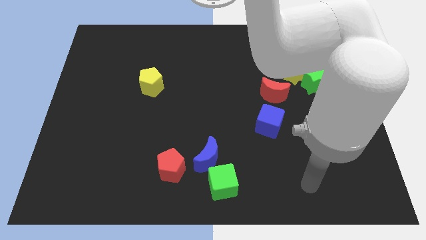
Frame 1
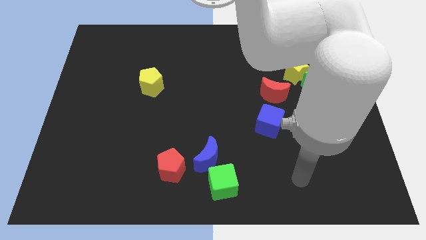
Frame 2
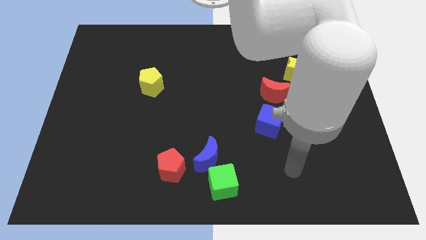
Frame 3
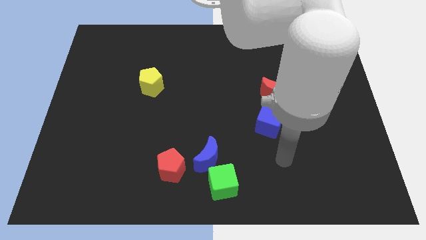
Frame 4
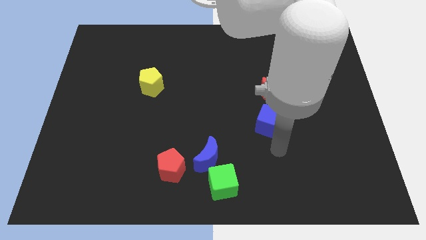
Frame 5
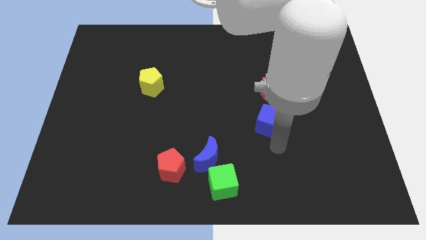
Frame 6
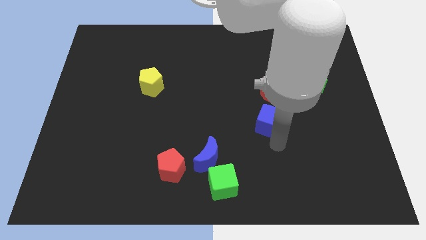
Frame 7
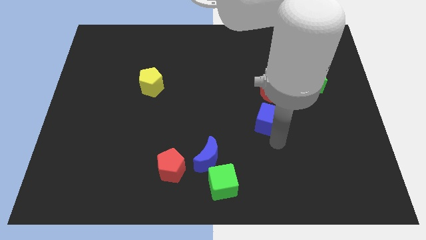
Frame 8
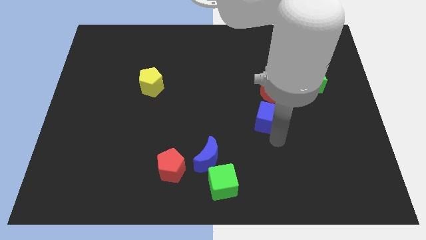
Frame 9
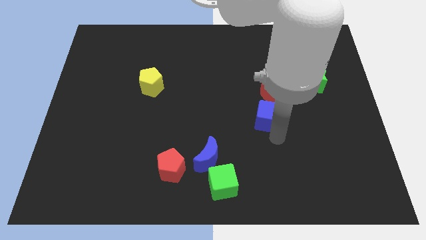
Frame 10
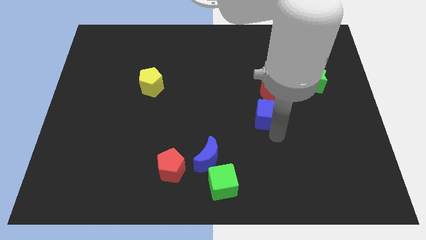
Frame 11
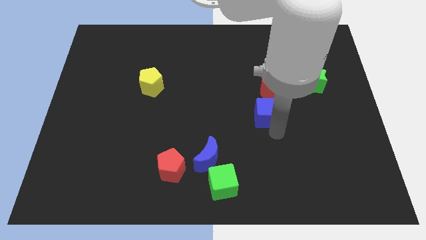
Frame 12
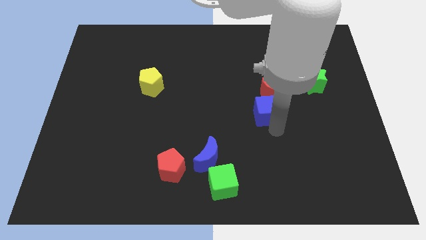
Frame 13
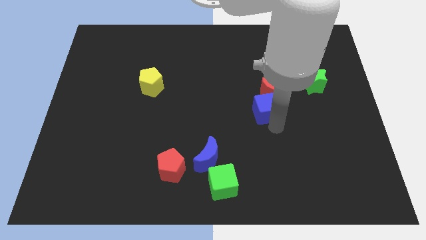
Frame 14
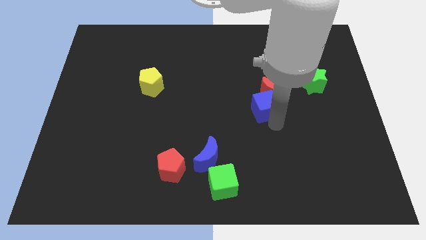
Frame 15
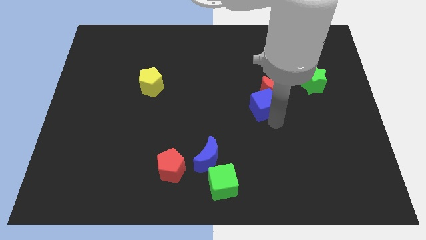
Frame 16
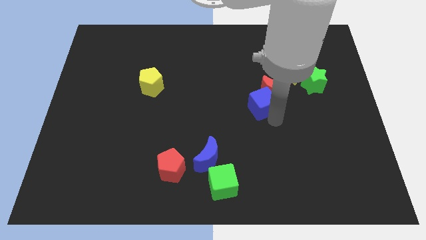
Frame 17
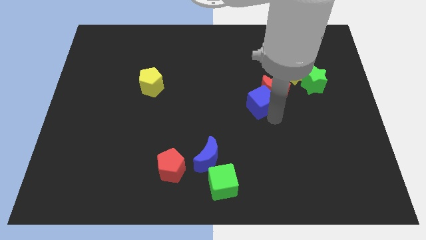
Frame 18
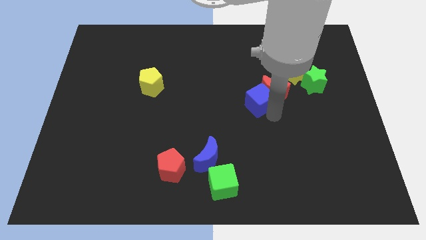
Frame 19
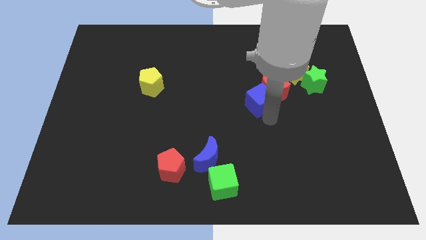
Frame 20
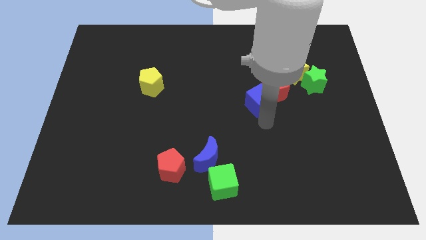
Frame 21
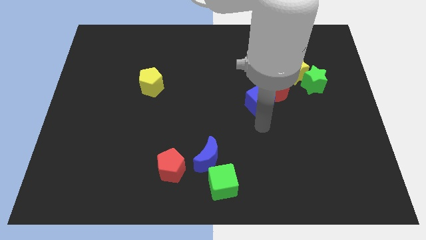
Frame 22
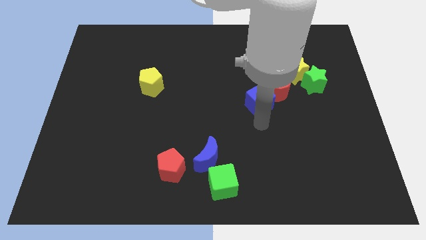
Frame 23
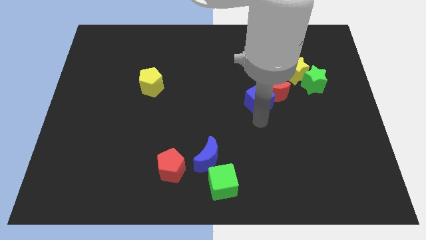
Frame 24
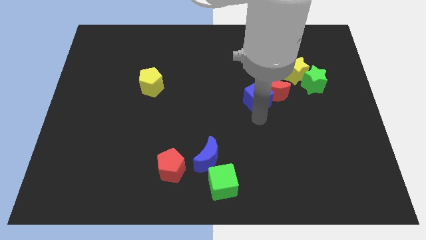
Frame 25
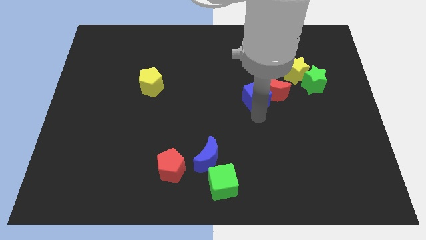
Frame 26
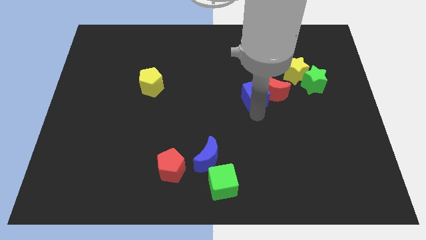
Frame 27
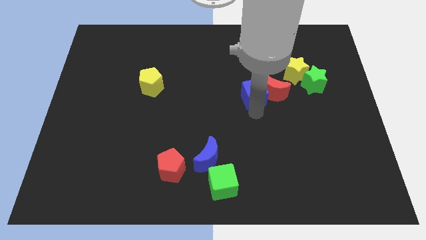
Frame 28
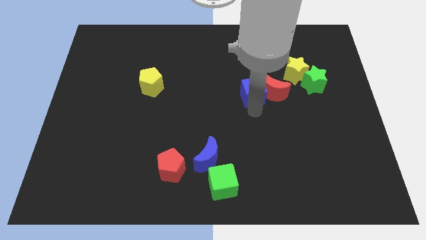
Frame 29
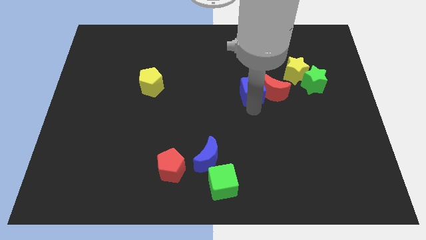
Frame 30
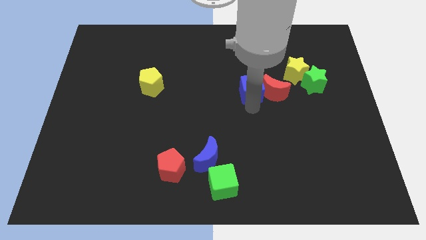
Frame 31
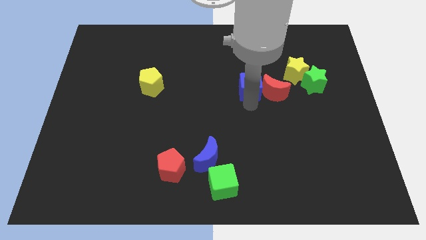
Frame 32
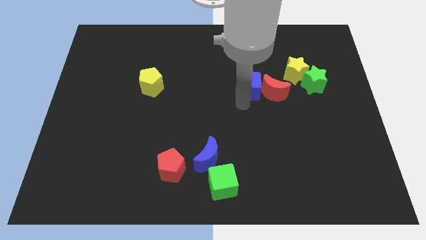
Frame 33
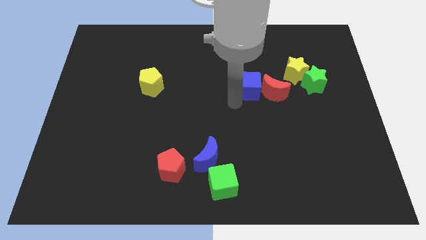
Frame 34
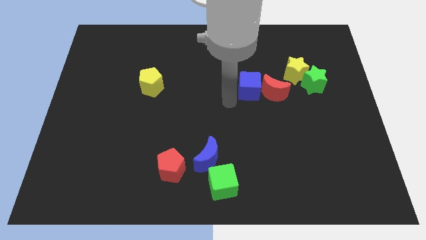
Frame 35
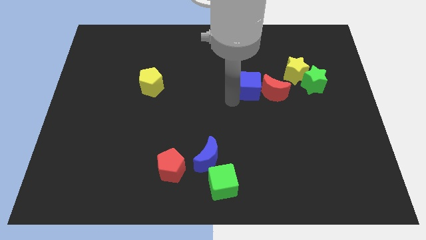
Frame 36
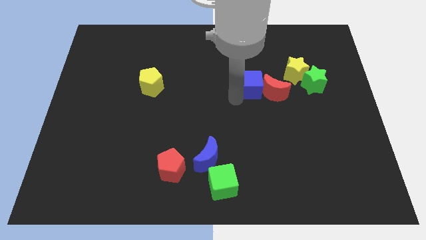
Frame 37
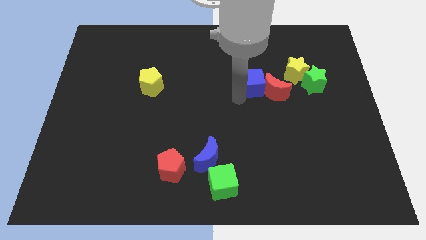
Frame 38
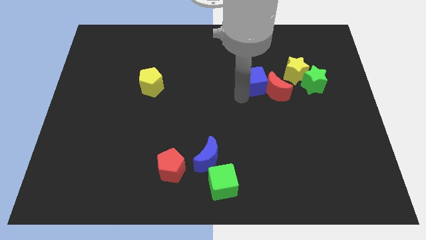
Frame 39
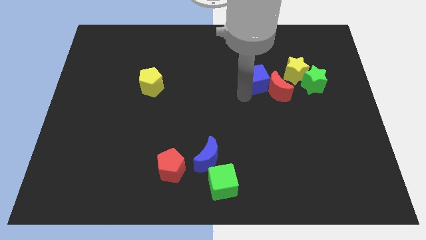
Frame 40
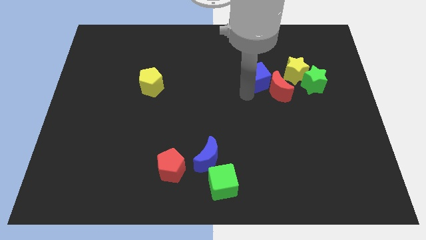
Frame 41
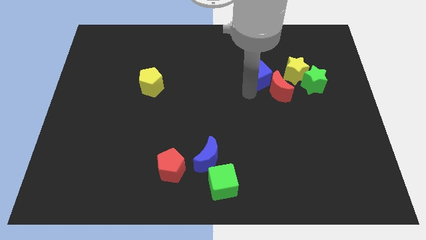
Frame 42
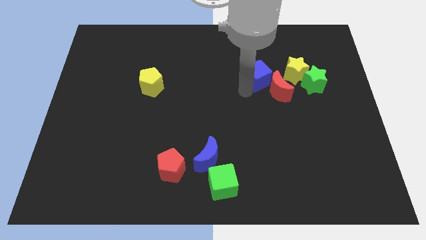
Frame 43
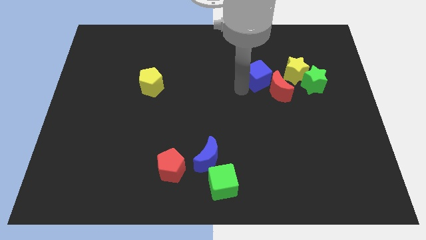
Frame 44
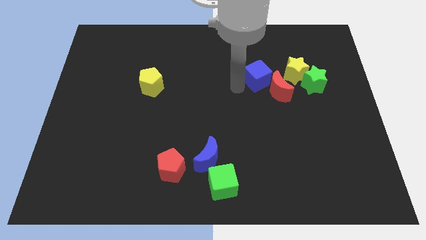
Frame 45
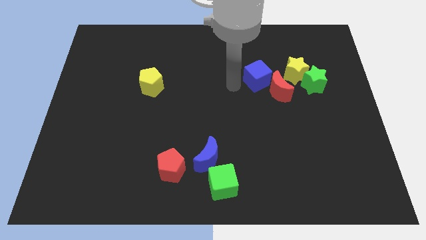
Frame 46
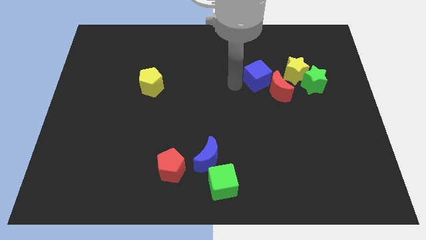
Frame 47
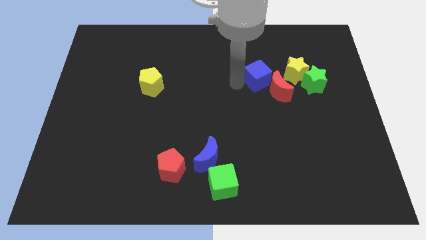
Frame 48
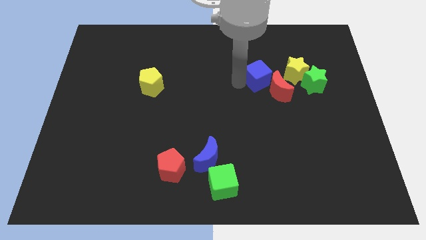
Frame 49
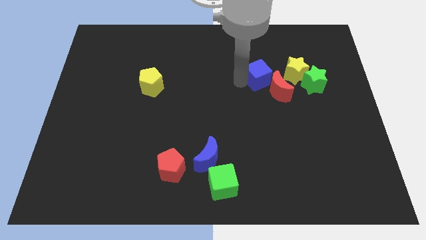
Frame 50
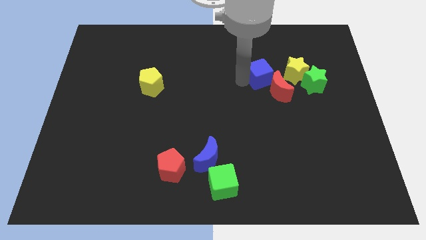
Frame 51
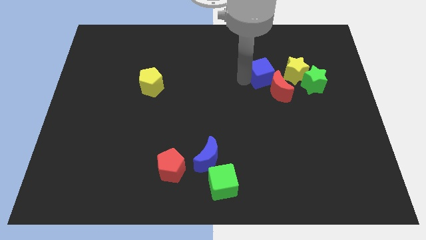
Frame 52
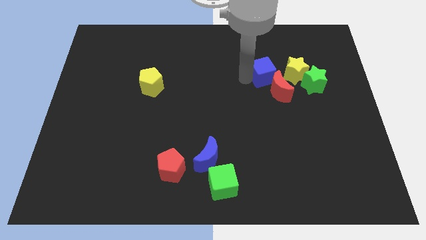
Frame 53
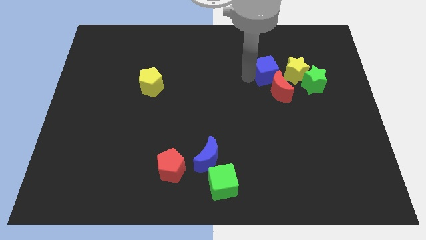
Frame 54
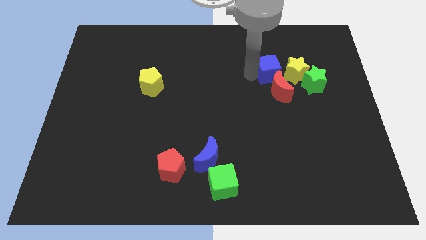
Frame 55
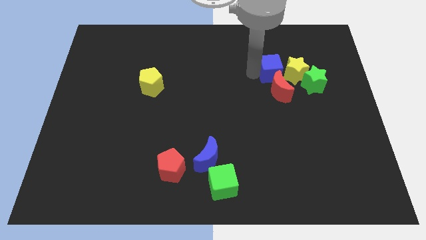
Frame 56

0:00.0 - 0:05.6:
put the blue cube towards the yellow star

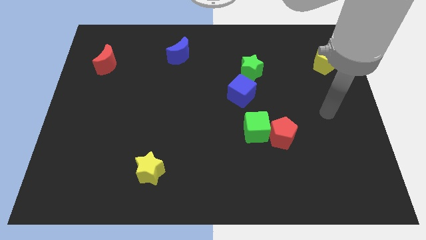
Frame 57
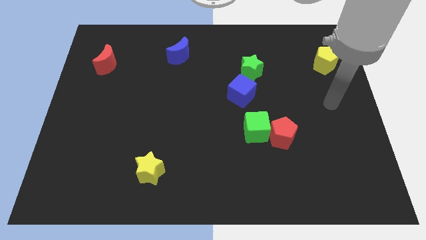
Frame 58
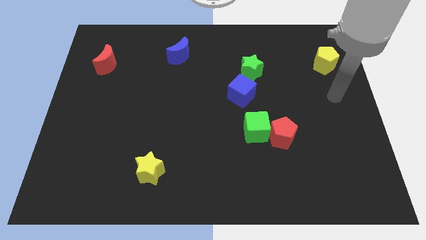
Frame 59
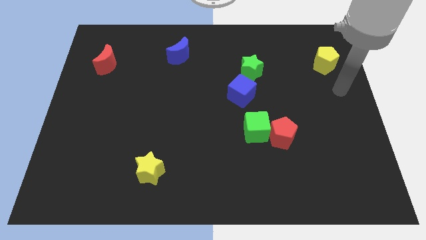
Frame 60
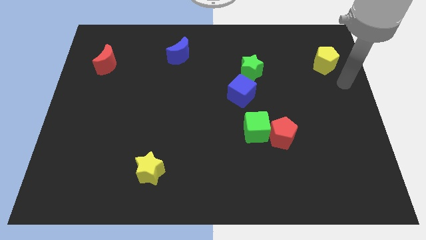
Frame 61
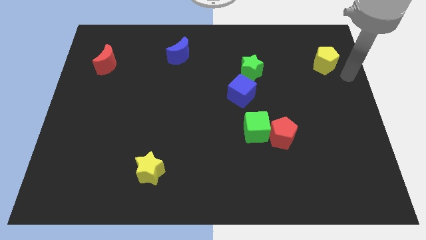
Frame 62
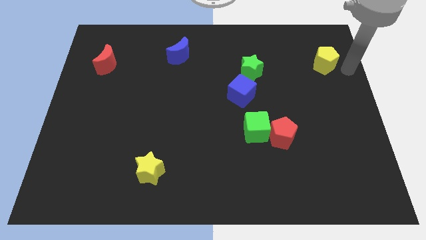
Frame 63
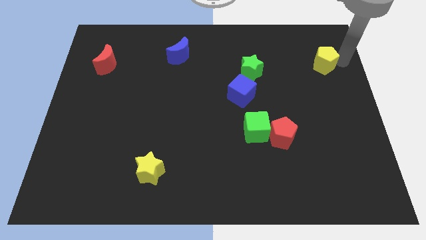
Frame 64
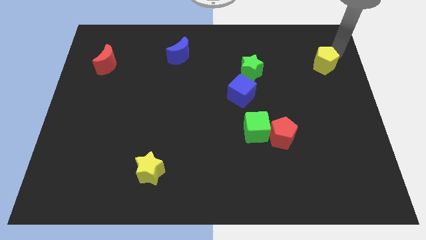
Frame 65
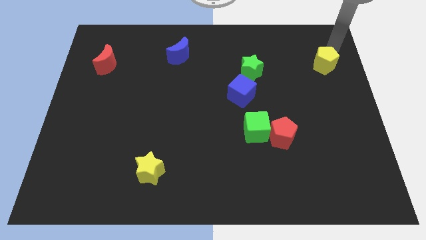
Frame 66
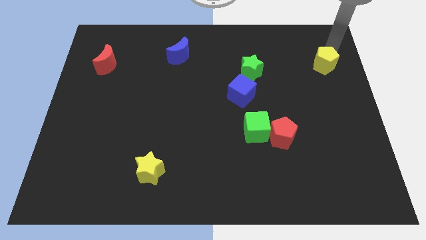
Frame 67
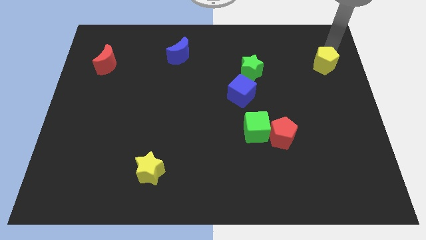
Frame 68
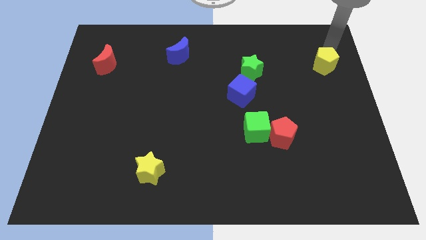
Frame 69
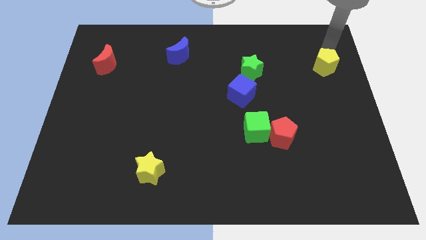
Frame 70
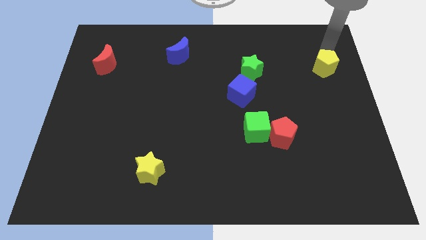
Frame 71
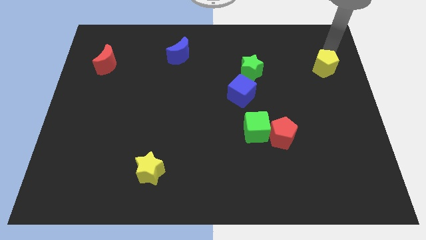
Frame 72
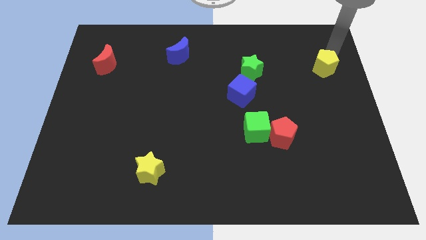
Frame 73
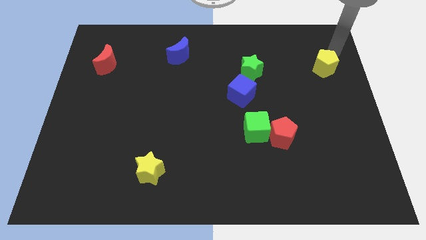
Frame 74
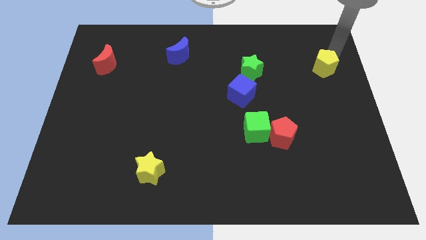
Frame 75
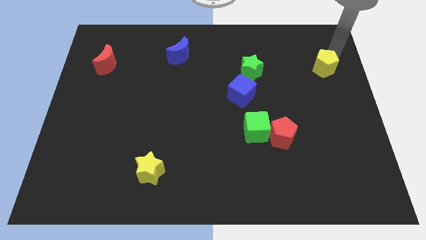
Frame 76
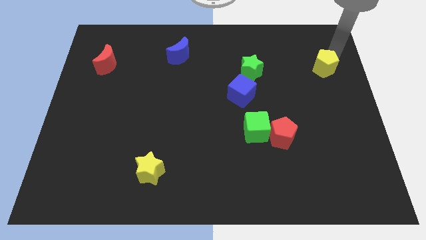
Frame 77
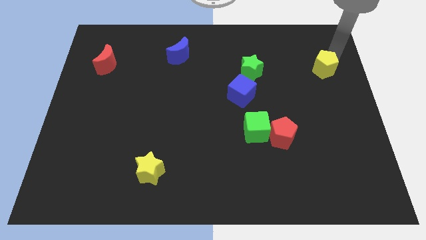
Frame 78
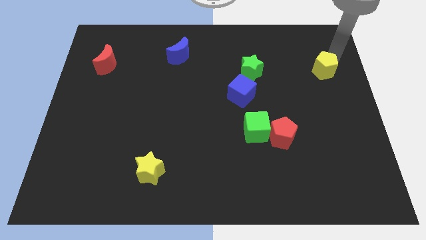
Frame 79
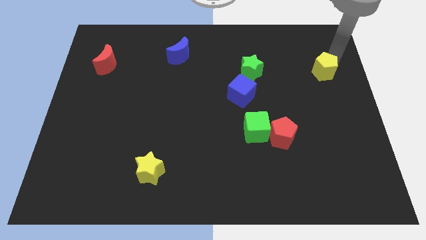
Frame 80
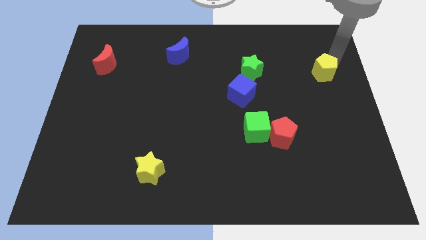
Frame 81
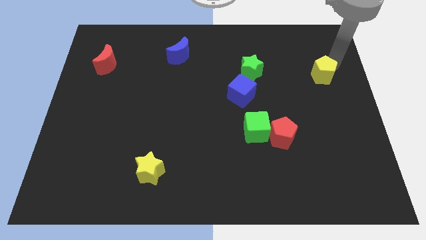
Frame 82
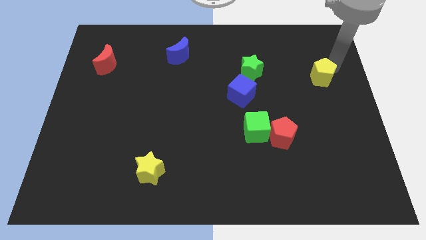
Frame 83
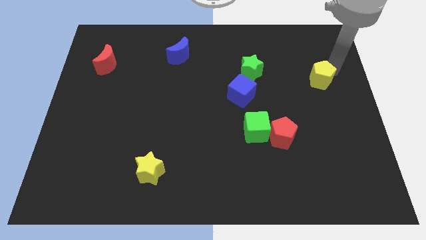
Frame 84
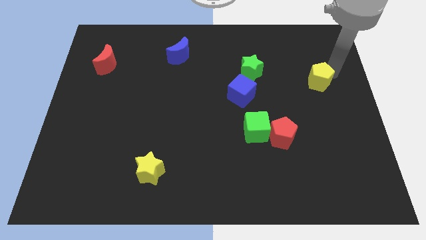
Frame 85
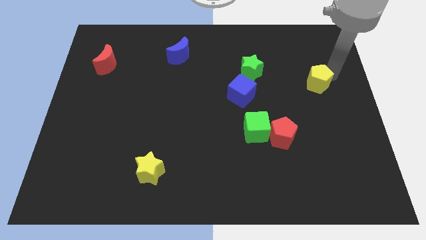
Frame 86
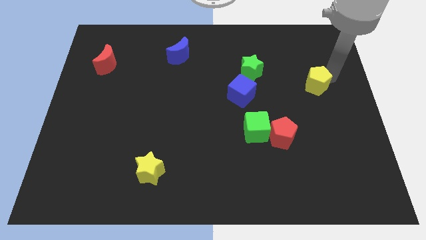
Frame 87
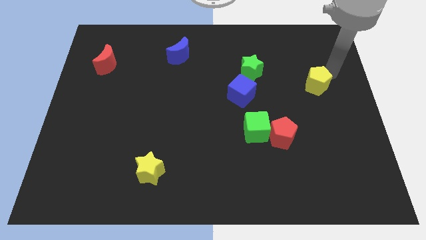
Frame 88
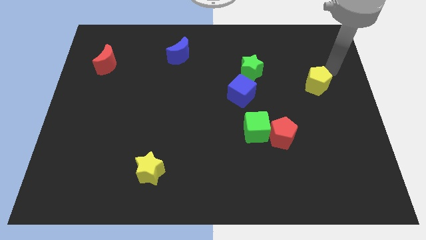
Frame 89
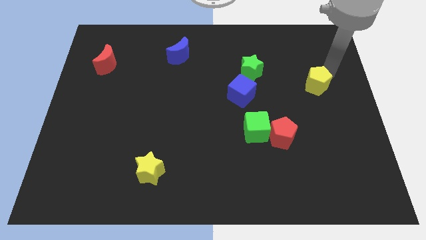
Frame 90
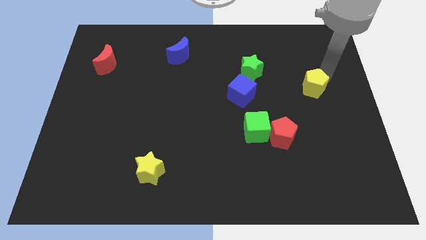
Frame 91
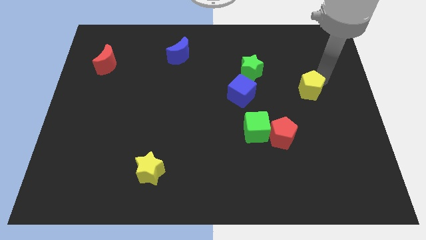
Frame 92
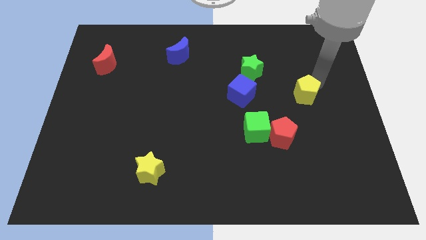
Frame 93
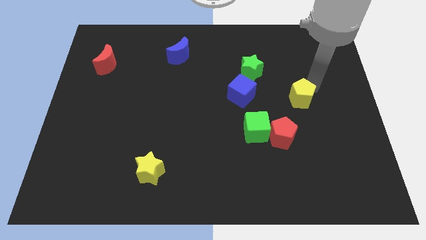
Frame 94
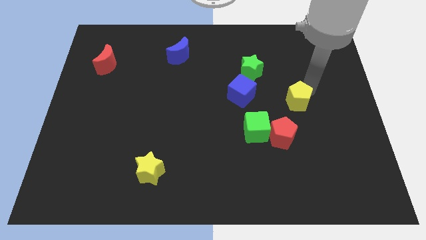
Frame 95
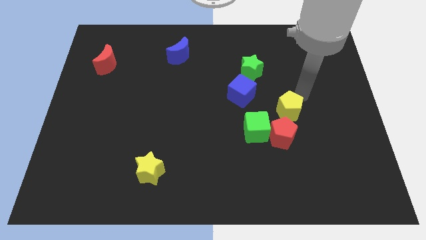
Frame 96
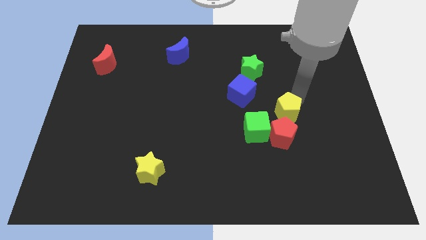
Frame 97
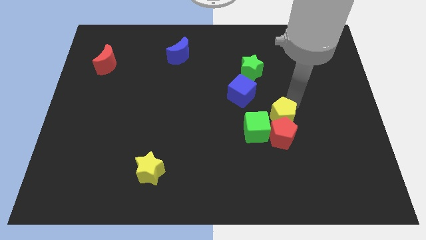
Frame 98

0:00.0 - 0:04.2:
slide the yellow pentagon next to the red pentagon
